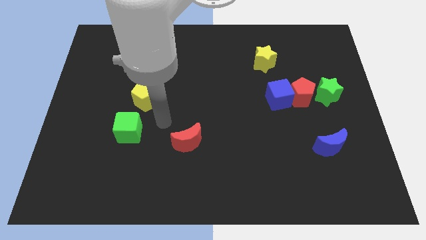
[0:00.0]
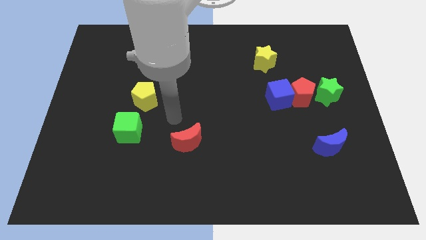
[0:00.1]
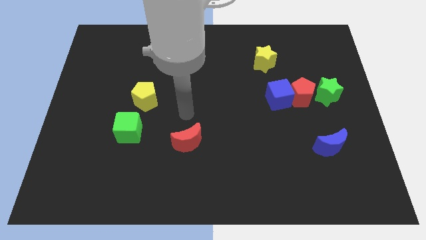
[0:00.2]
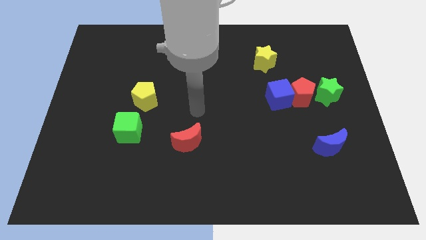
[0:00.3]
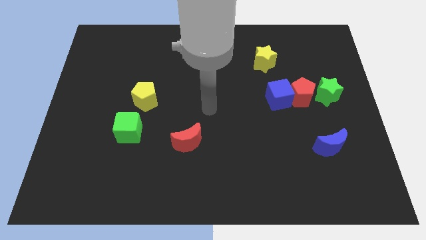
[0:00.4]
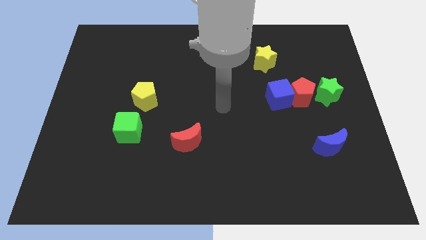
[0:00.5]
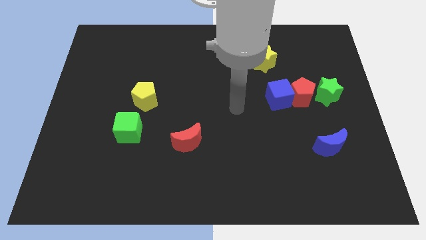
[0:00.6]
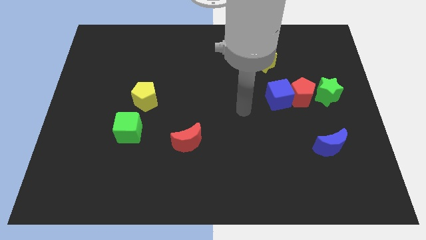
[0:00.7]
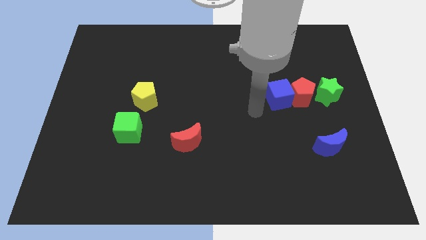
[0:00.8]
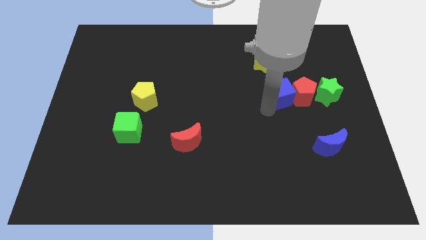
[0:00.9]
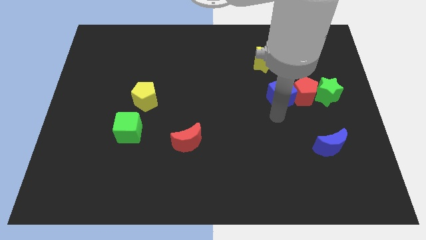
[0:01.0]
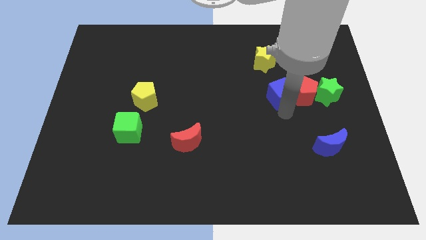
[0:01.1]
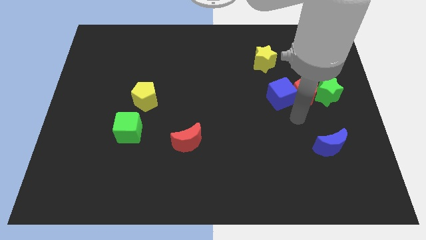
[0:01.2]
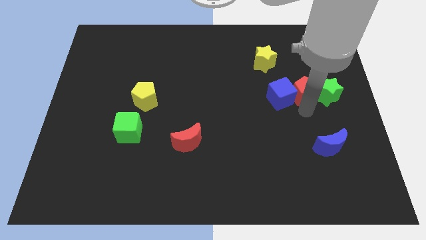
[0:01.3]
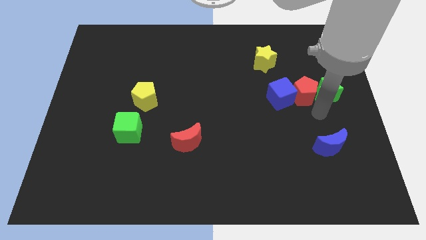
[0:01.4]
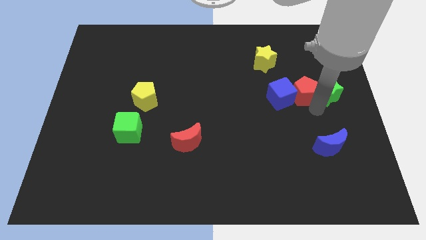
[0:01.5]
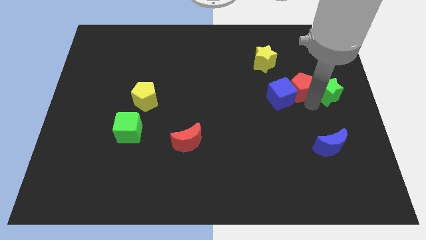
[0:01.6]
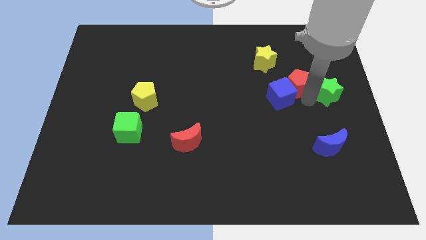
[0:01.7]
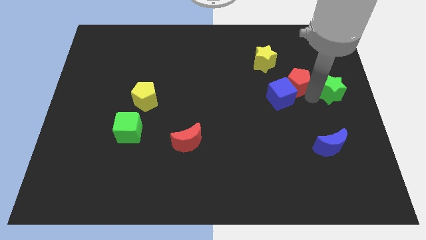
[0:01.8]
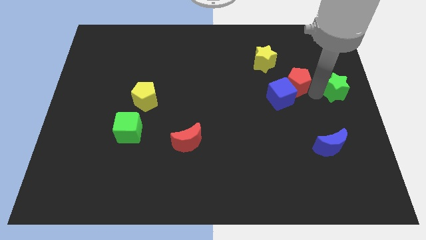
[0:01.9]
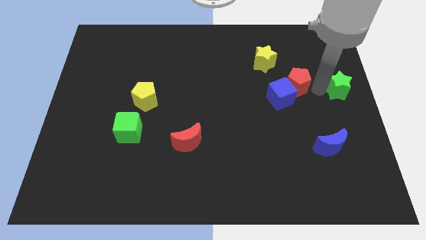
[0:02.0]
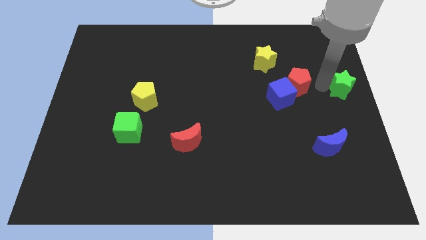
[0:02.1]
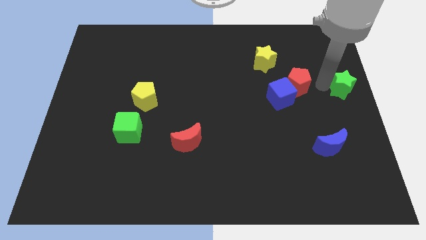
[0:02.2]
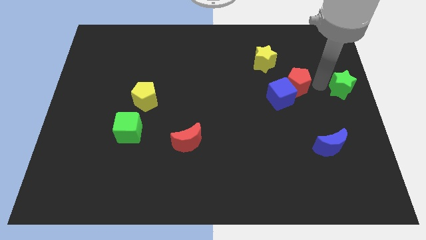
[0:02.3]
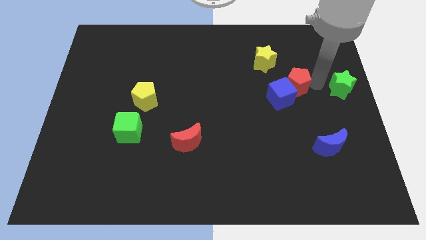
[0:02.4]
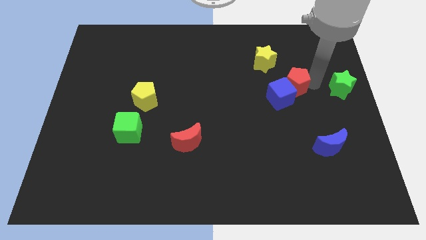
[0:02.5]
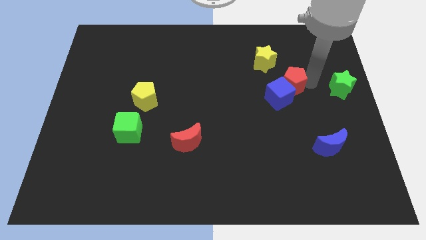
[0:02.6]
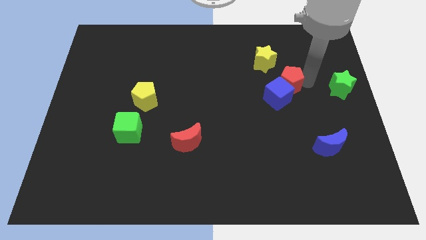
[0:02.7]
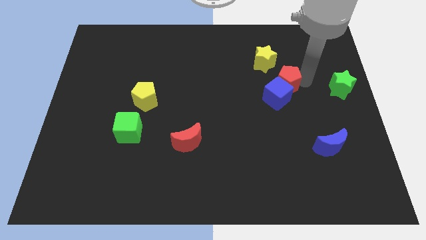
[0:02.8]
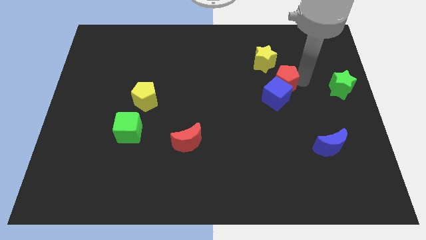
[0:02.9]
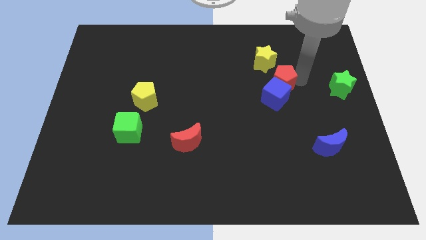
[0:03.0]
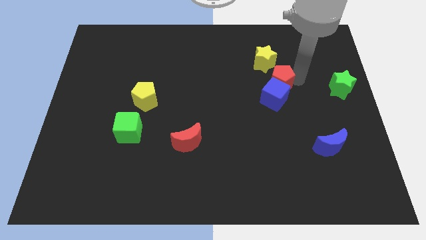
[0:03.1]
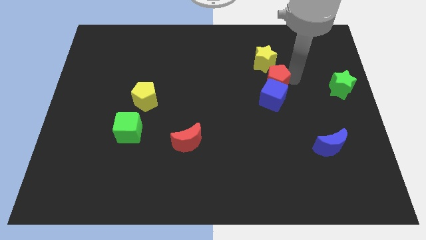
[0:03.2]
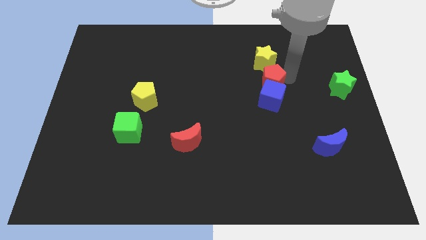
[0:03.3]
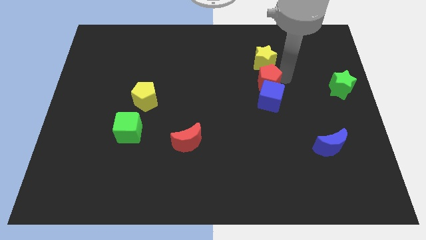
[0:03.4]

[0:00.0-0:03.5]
move the red pentagon a bit left

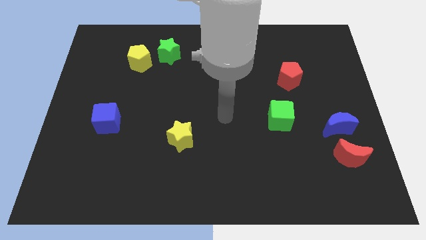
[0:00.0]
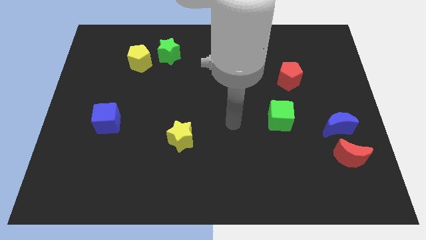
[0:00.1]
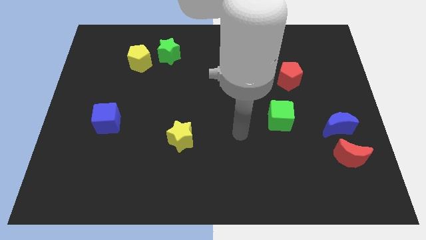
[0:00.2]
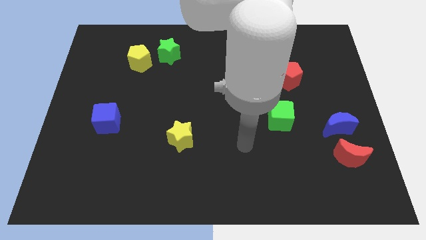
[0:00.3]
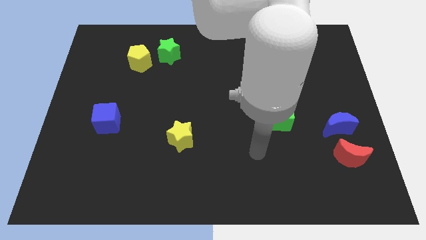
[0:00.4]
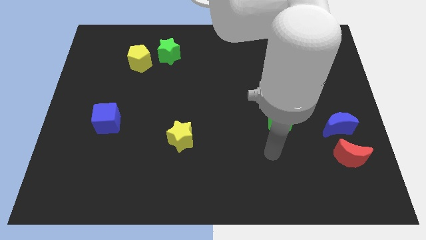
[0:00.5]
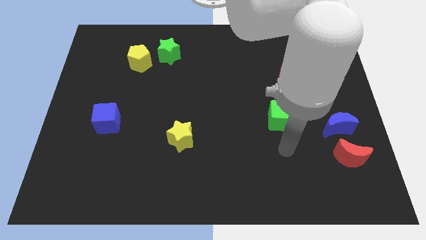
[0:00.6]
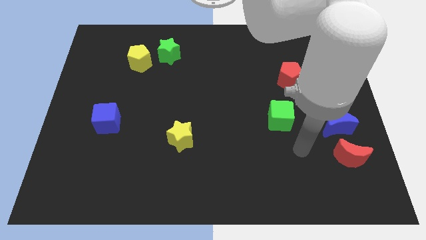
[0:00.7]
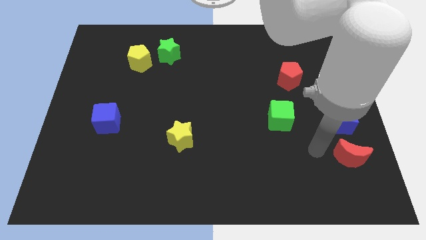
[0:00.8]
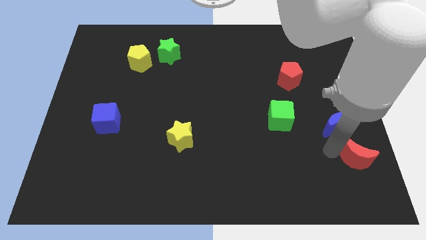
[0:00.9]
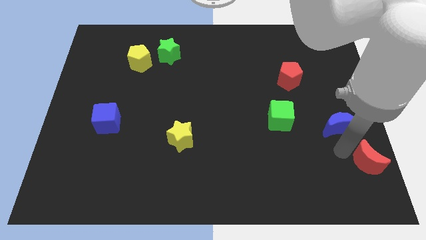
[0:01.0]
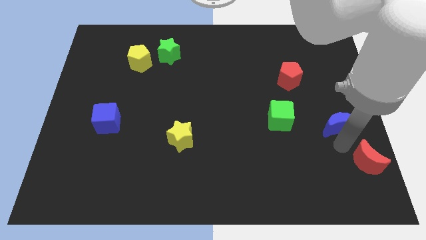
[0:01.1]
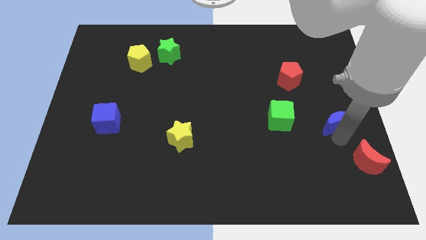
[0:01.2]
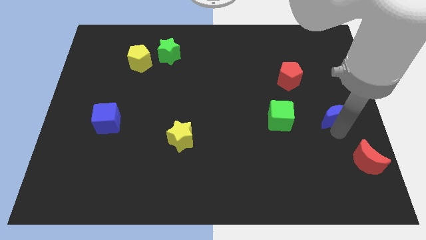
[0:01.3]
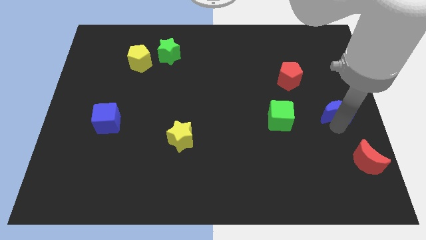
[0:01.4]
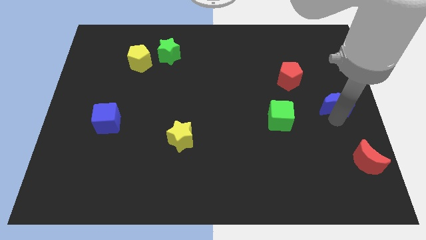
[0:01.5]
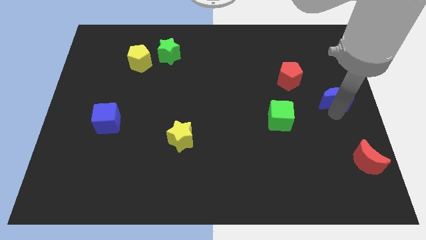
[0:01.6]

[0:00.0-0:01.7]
push the blue moon up slightly

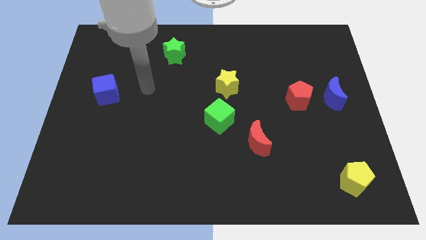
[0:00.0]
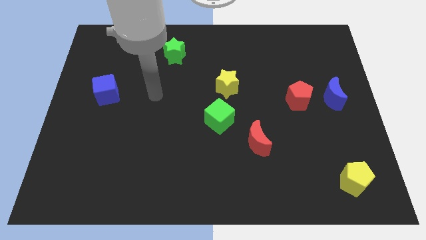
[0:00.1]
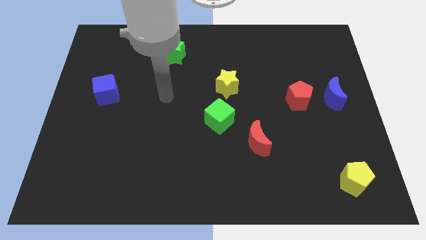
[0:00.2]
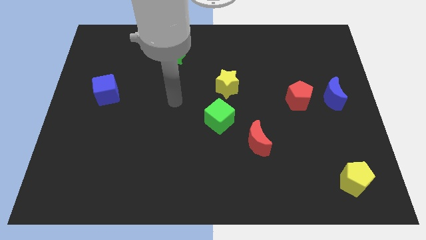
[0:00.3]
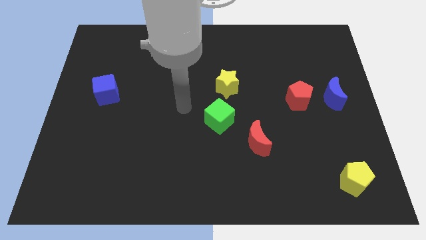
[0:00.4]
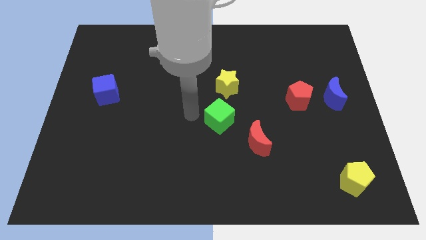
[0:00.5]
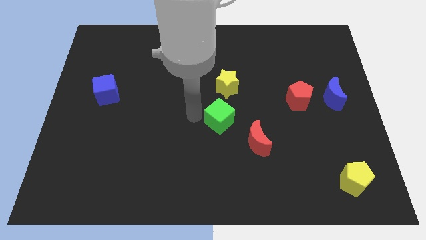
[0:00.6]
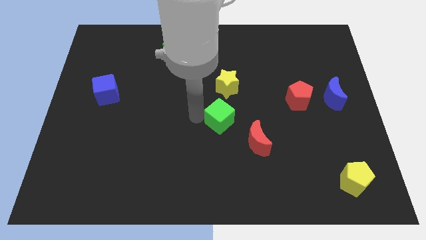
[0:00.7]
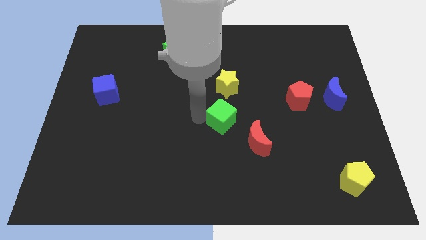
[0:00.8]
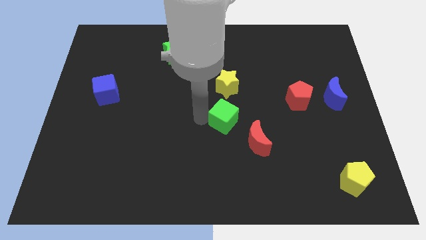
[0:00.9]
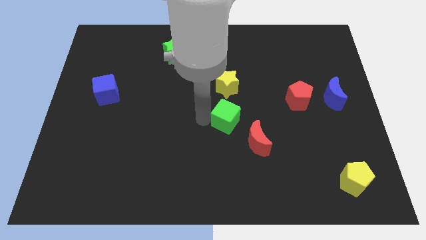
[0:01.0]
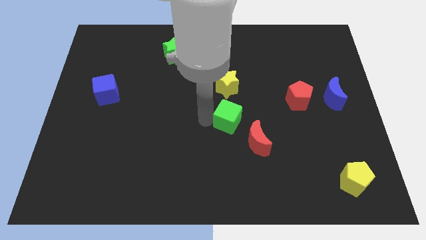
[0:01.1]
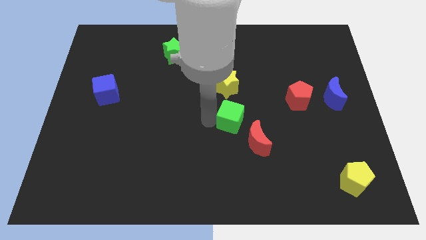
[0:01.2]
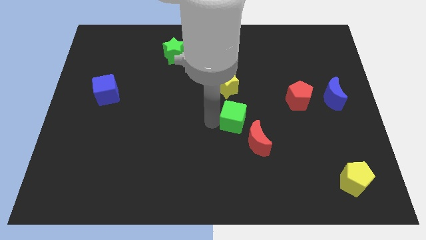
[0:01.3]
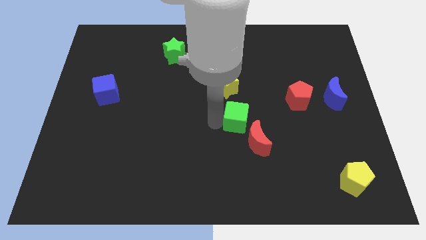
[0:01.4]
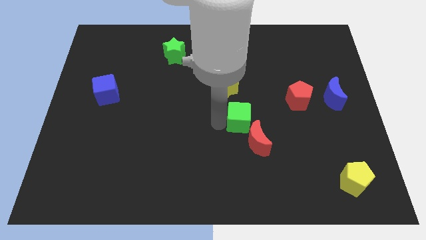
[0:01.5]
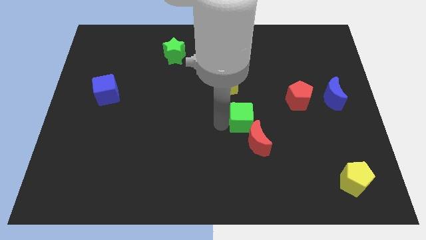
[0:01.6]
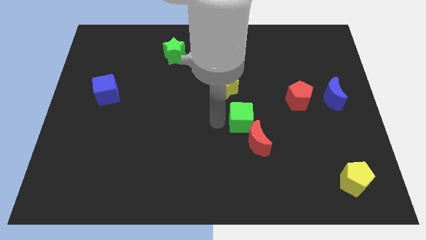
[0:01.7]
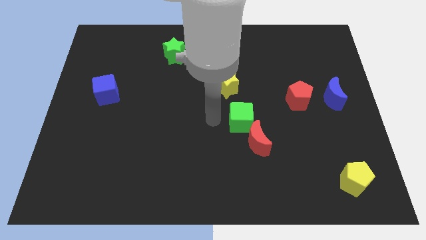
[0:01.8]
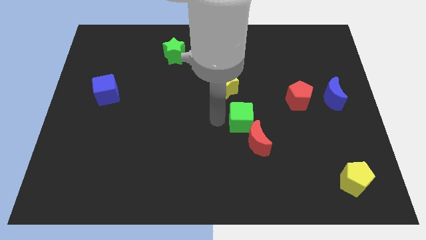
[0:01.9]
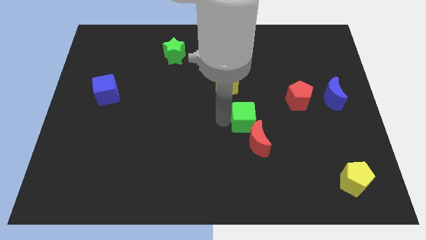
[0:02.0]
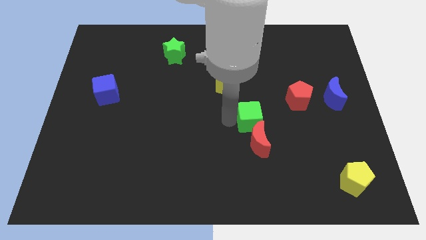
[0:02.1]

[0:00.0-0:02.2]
slide the green cube to the right somewhat

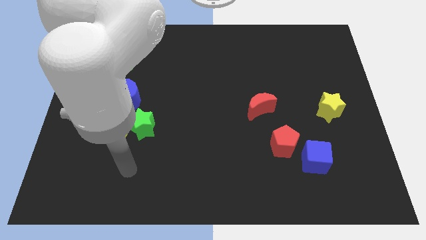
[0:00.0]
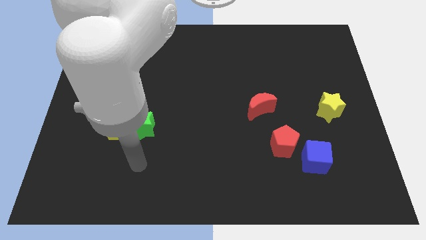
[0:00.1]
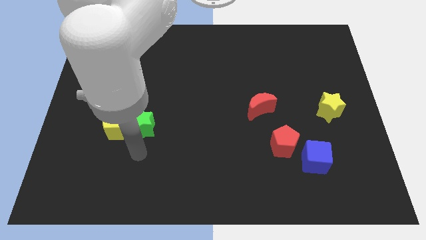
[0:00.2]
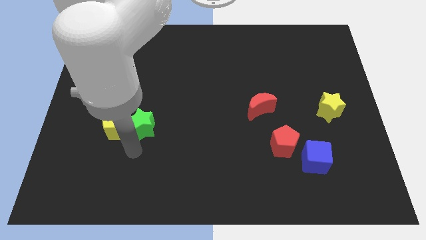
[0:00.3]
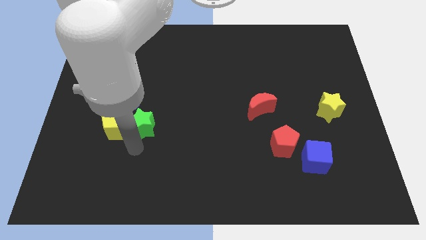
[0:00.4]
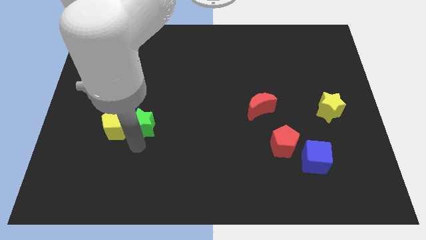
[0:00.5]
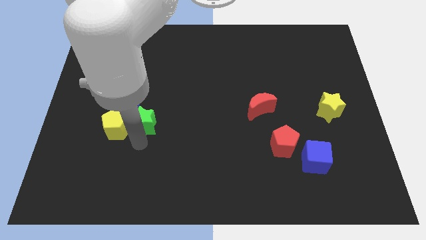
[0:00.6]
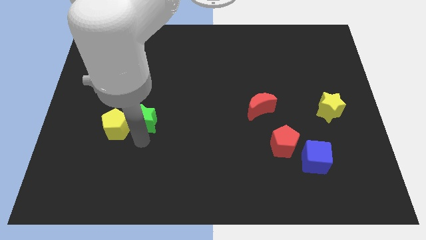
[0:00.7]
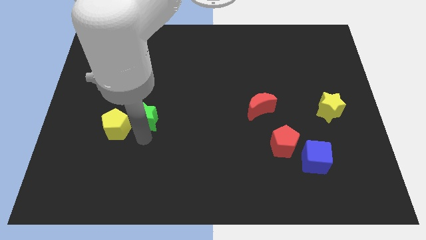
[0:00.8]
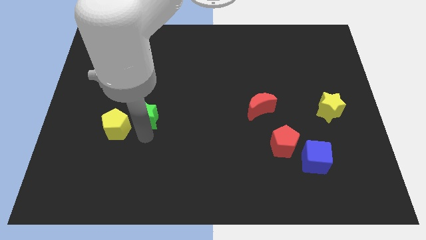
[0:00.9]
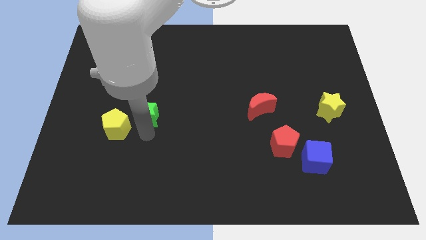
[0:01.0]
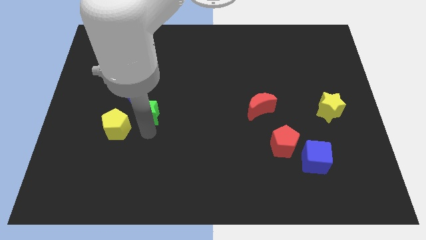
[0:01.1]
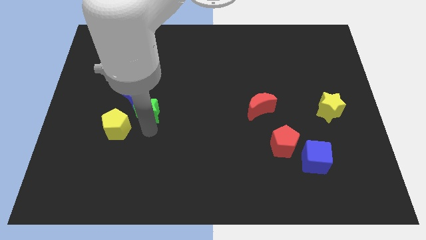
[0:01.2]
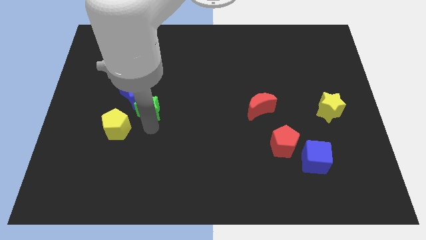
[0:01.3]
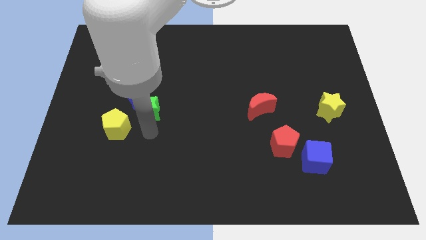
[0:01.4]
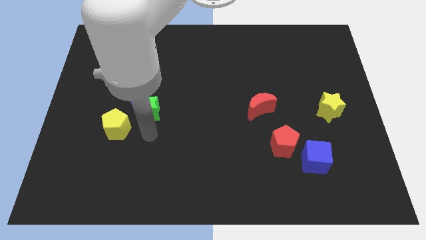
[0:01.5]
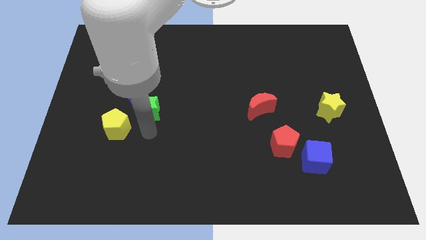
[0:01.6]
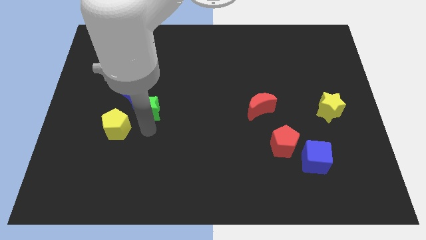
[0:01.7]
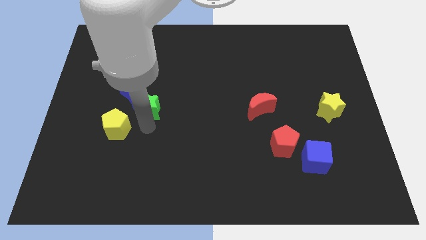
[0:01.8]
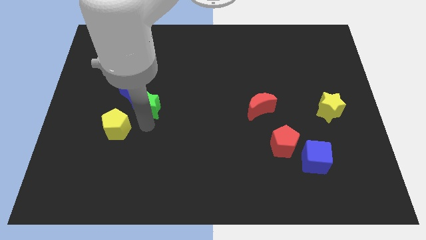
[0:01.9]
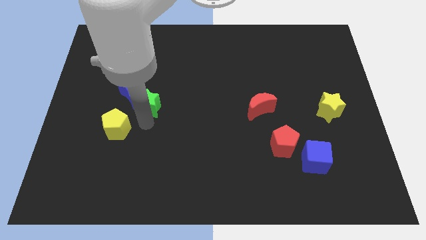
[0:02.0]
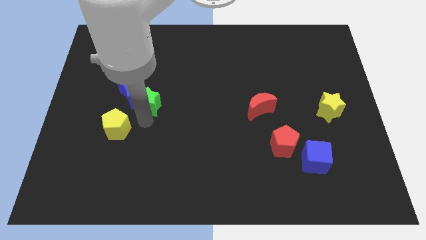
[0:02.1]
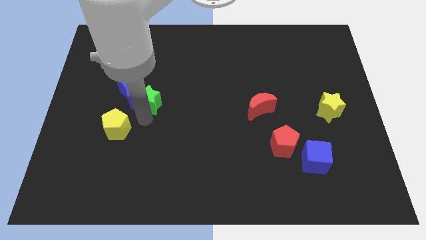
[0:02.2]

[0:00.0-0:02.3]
push the green star a little bit up
